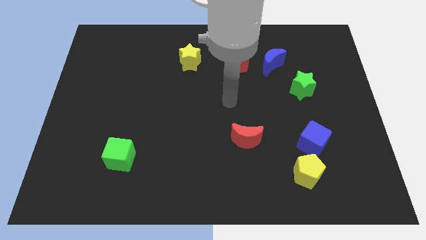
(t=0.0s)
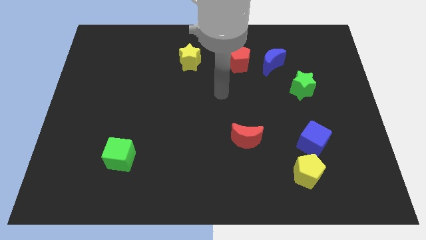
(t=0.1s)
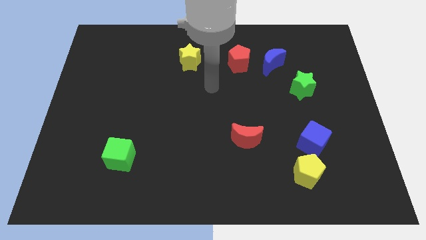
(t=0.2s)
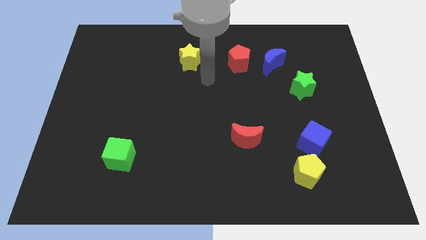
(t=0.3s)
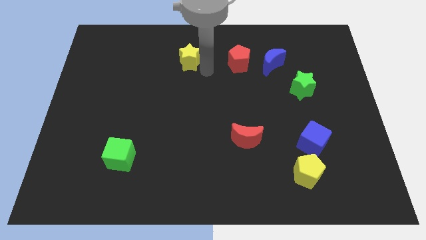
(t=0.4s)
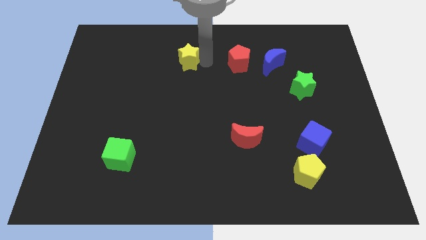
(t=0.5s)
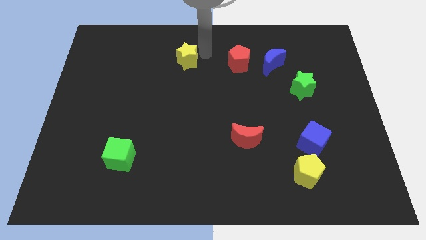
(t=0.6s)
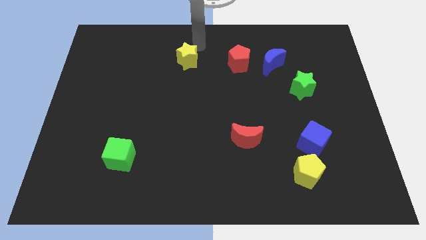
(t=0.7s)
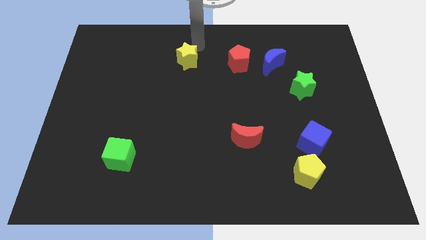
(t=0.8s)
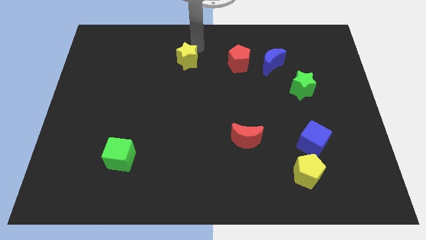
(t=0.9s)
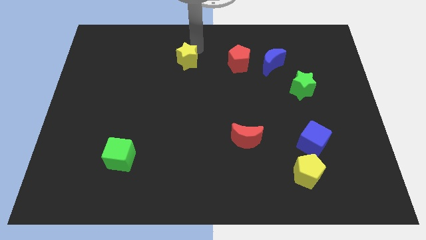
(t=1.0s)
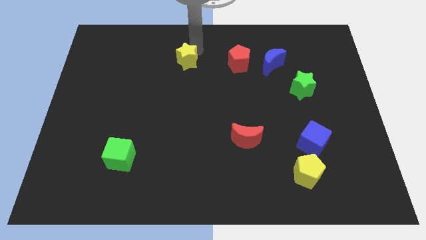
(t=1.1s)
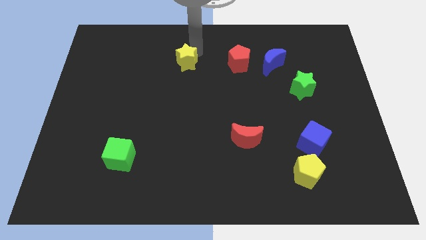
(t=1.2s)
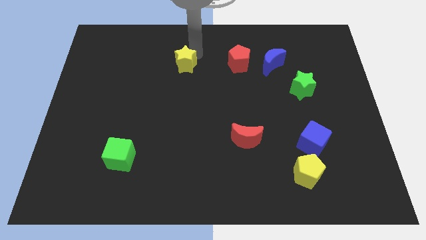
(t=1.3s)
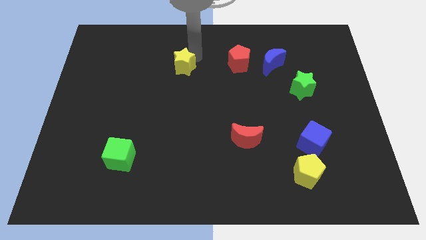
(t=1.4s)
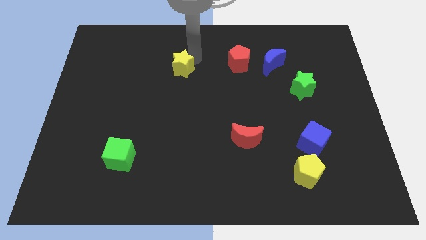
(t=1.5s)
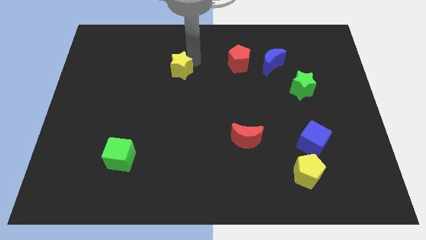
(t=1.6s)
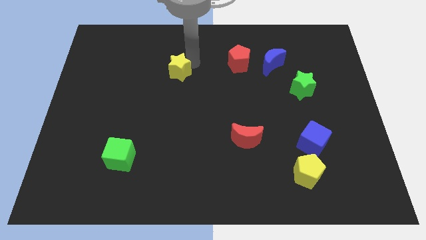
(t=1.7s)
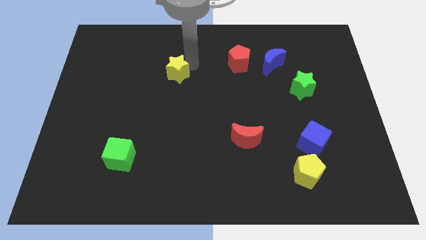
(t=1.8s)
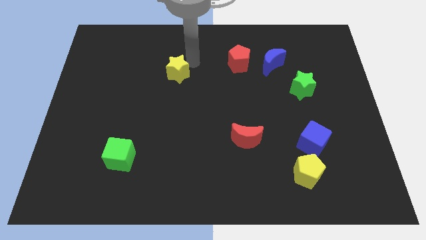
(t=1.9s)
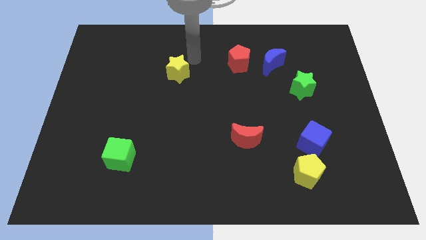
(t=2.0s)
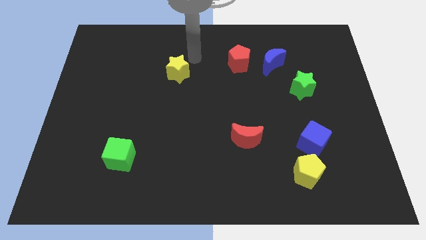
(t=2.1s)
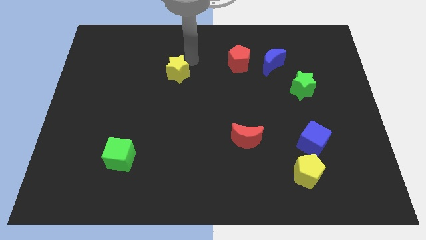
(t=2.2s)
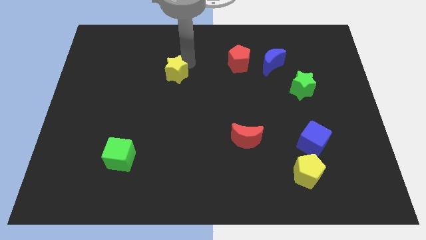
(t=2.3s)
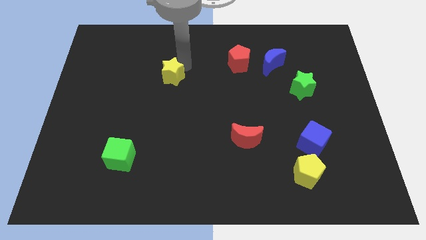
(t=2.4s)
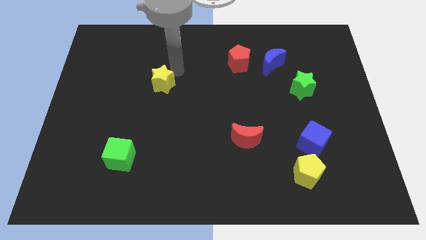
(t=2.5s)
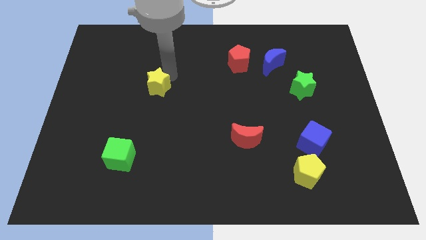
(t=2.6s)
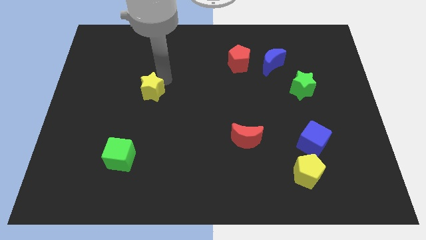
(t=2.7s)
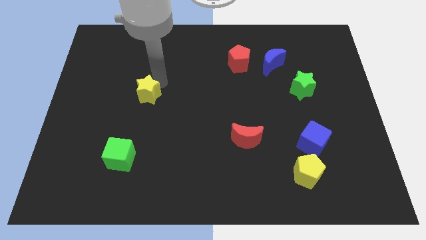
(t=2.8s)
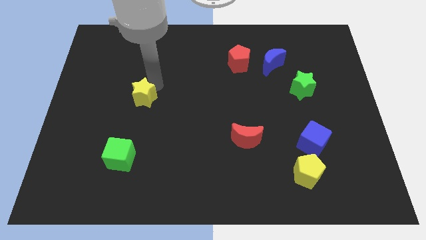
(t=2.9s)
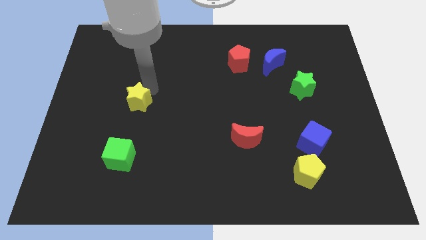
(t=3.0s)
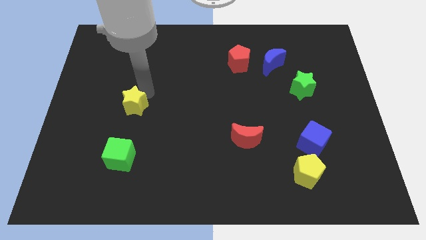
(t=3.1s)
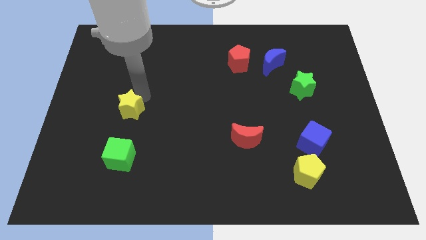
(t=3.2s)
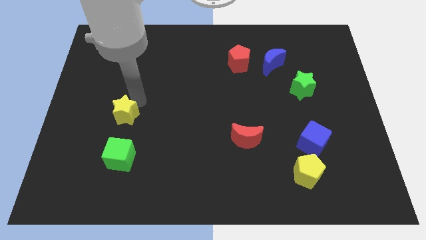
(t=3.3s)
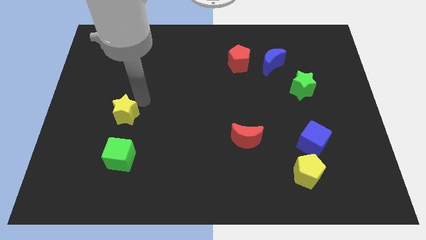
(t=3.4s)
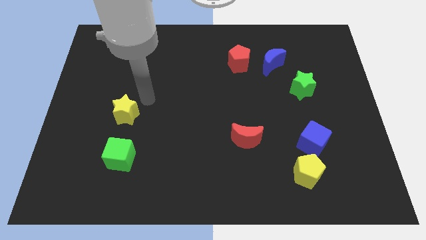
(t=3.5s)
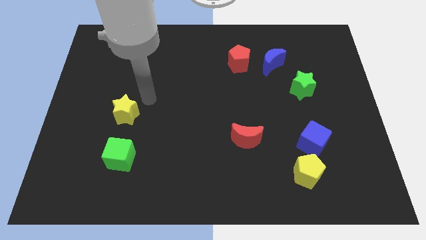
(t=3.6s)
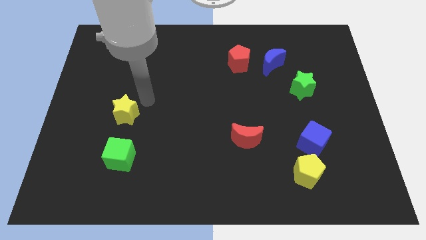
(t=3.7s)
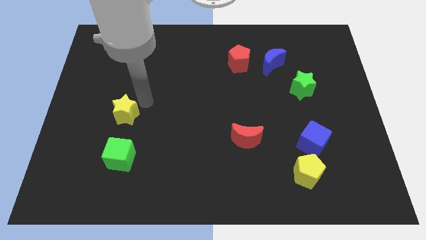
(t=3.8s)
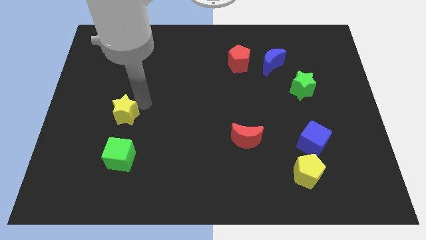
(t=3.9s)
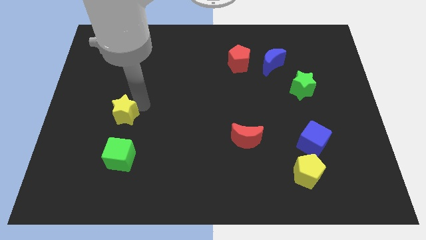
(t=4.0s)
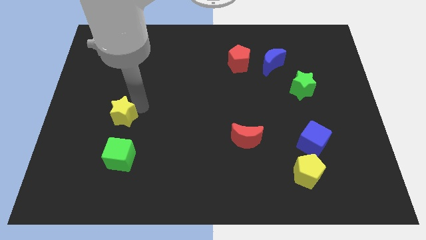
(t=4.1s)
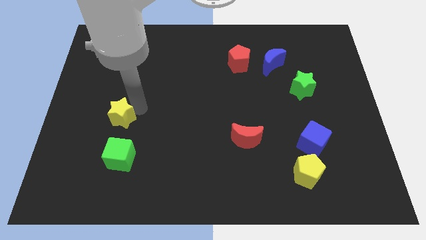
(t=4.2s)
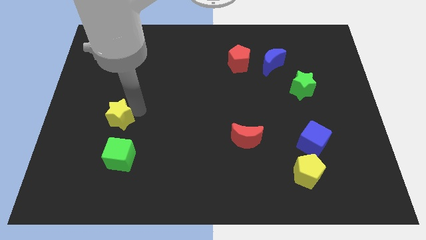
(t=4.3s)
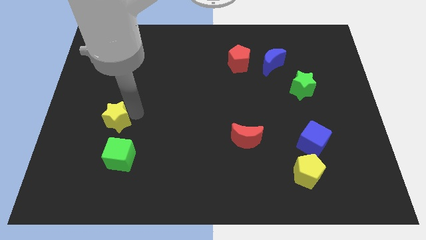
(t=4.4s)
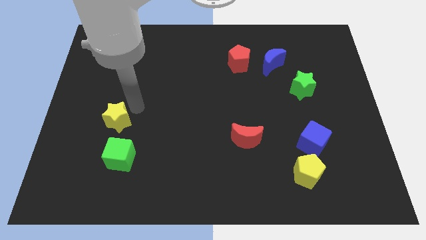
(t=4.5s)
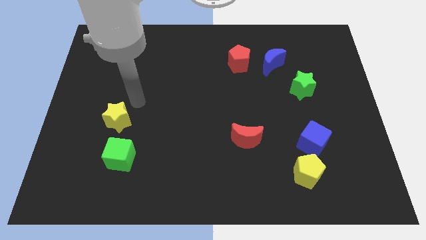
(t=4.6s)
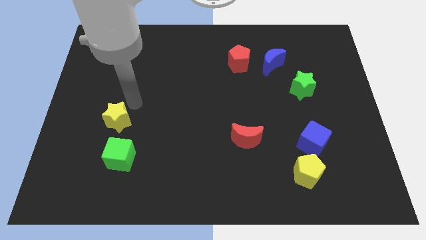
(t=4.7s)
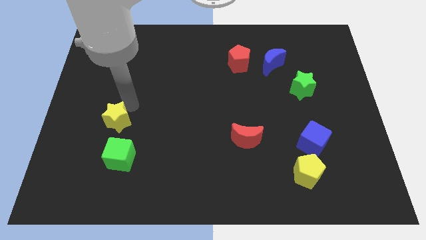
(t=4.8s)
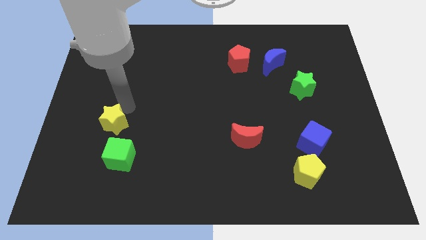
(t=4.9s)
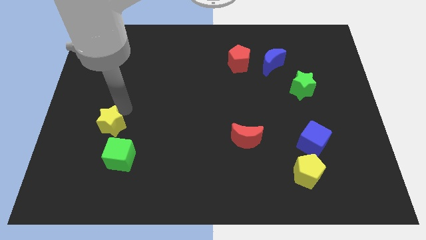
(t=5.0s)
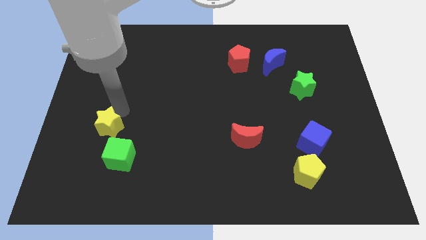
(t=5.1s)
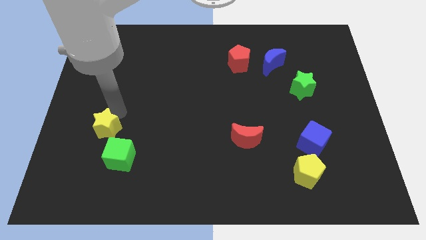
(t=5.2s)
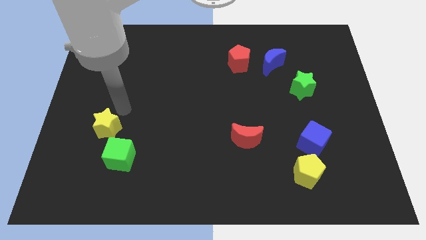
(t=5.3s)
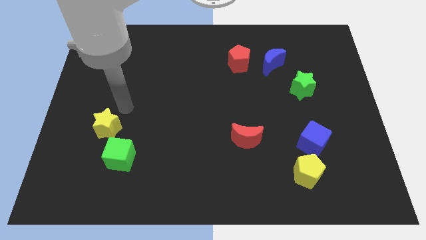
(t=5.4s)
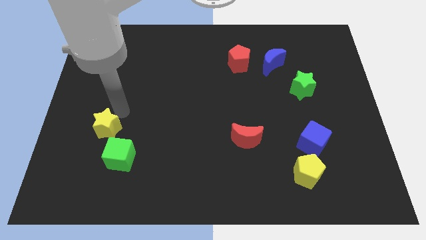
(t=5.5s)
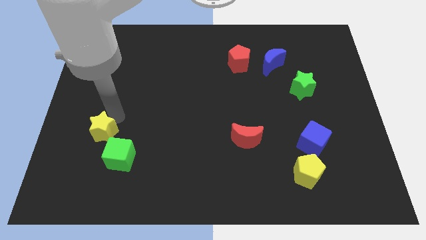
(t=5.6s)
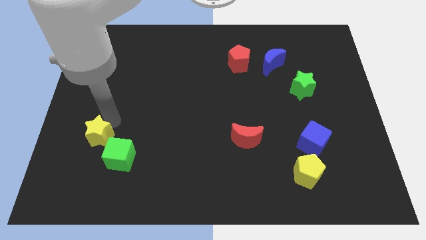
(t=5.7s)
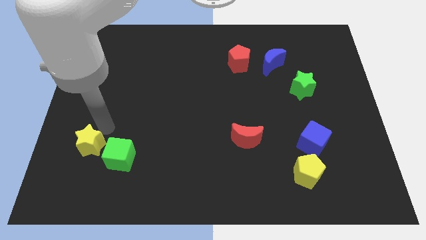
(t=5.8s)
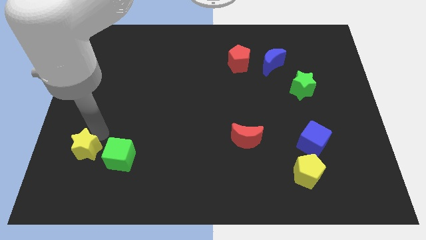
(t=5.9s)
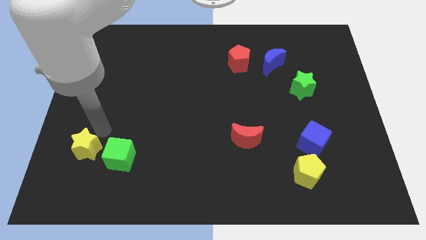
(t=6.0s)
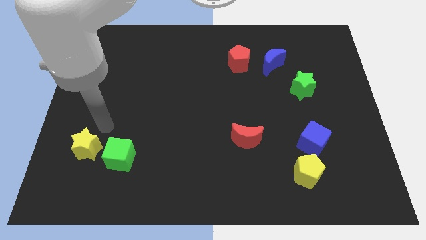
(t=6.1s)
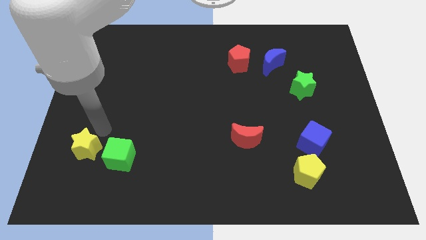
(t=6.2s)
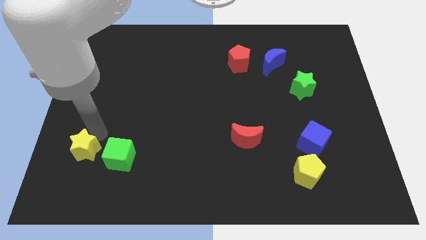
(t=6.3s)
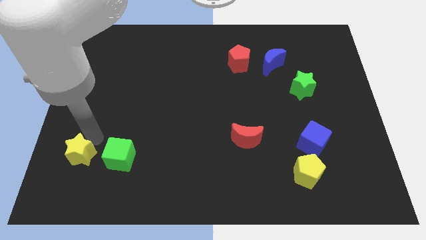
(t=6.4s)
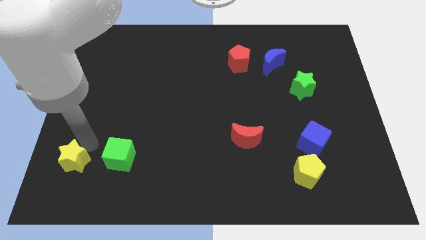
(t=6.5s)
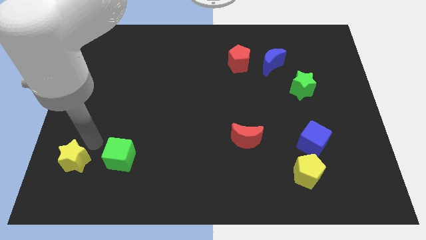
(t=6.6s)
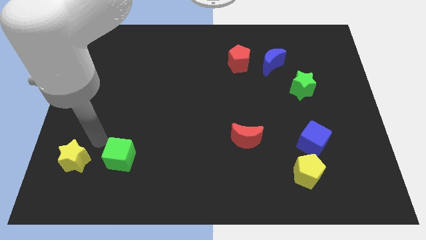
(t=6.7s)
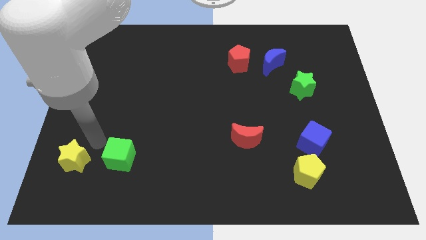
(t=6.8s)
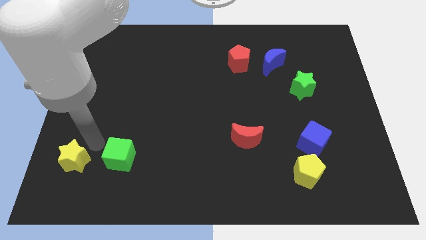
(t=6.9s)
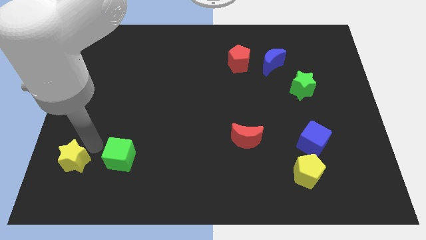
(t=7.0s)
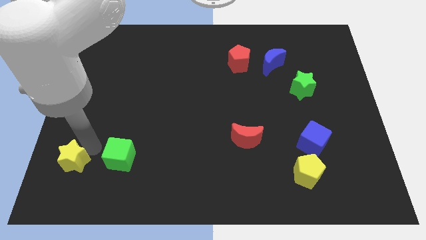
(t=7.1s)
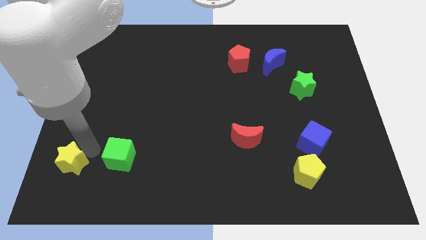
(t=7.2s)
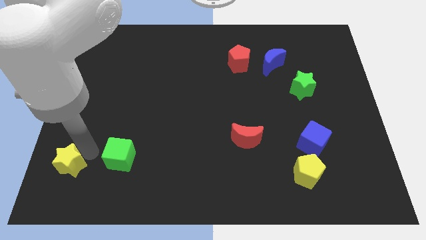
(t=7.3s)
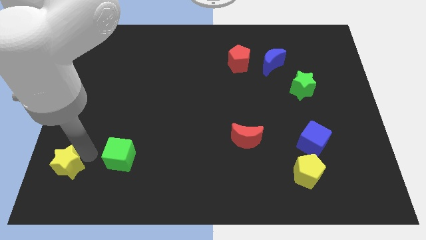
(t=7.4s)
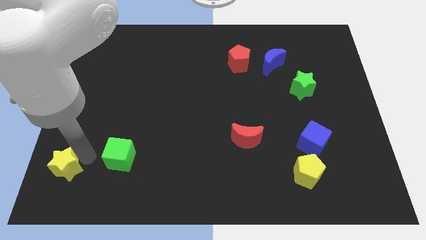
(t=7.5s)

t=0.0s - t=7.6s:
put the yellow star to the lower left corner
